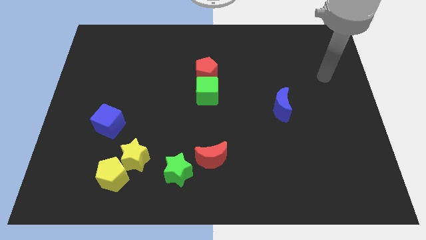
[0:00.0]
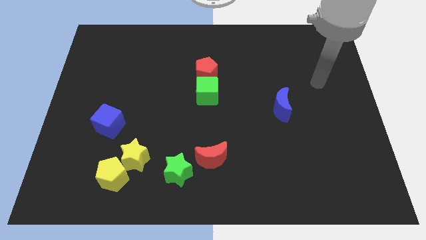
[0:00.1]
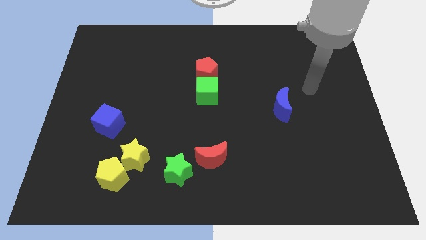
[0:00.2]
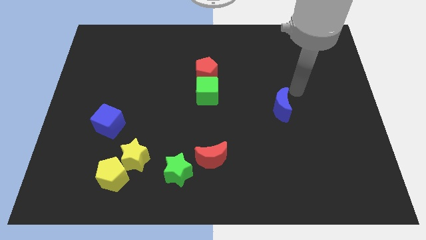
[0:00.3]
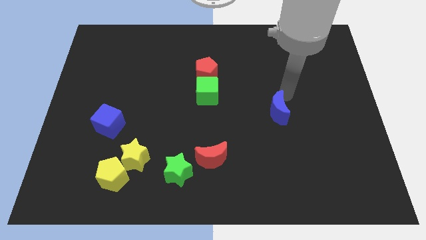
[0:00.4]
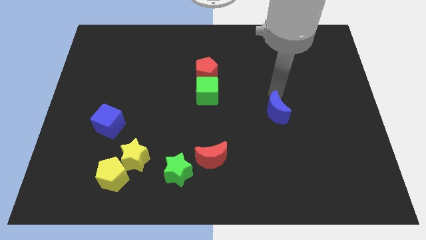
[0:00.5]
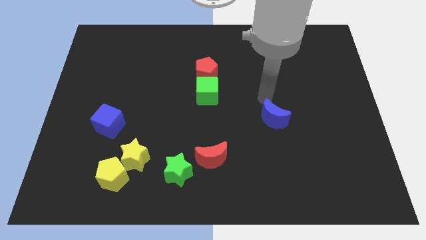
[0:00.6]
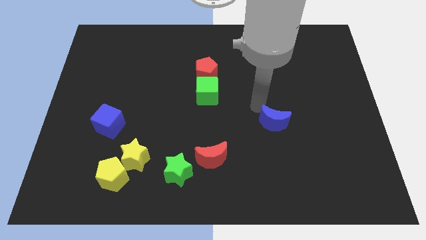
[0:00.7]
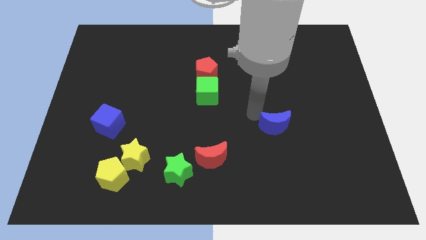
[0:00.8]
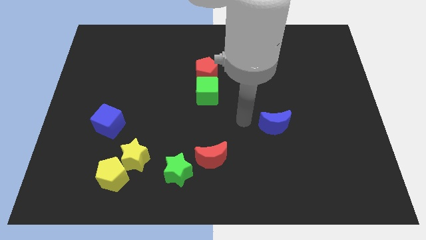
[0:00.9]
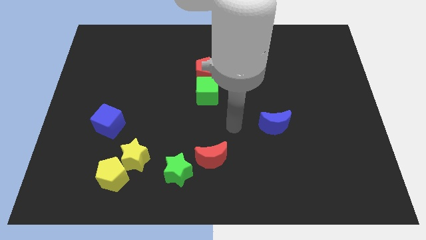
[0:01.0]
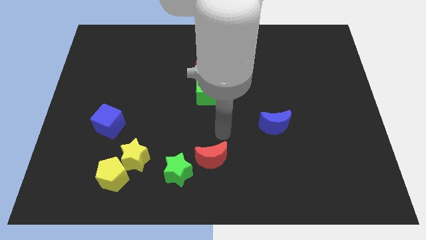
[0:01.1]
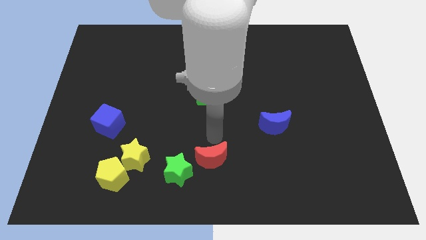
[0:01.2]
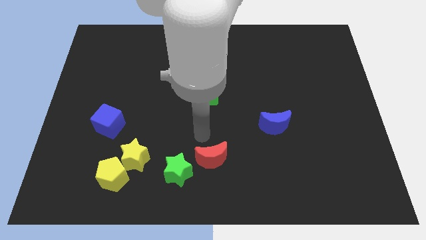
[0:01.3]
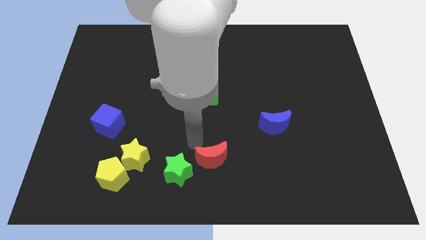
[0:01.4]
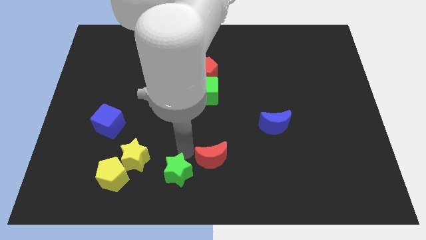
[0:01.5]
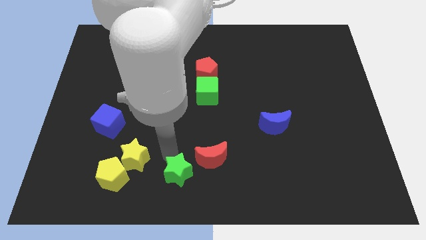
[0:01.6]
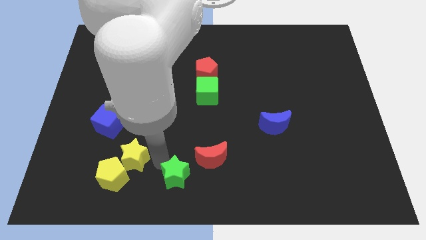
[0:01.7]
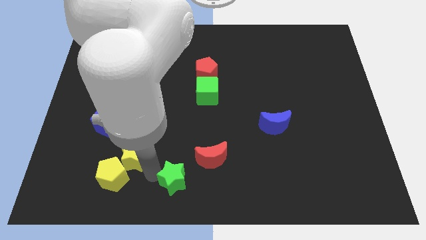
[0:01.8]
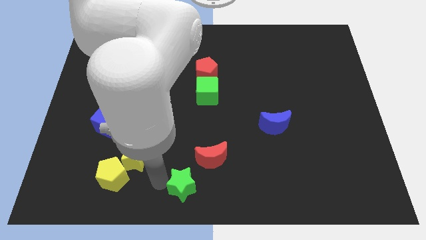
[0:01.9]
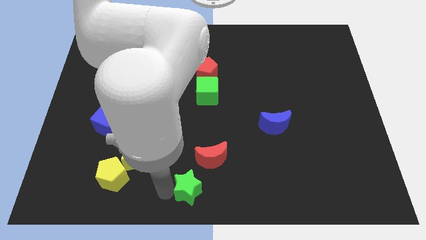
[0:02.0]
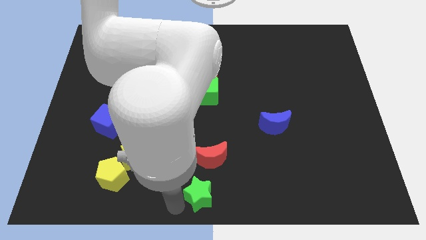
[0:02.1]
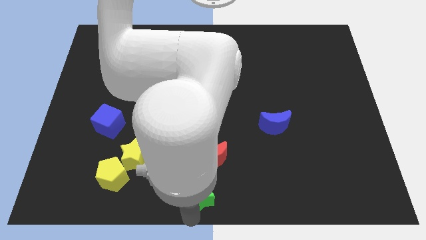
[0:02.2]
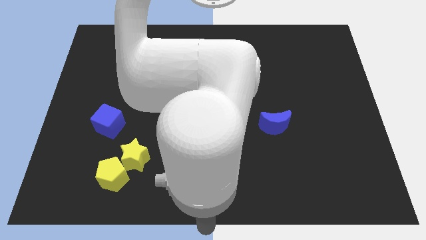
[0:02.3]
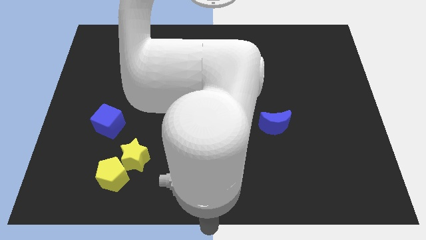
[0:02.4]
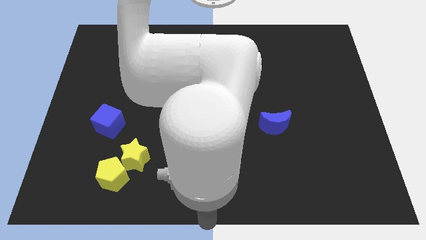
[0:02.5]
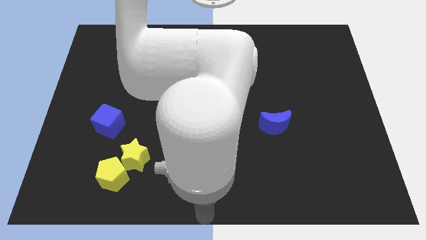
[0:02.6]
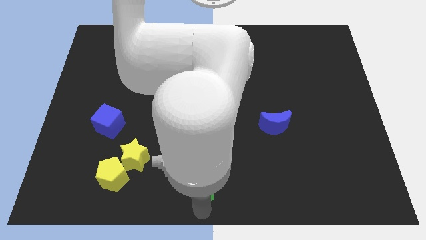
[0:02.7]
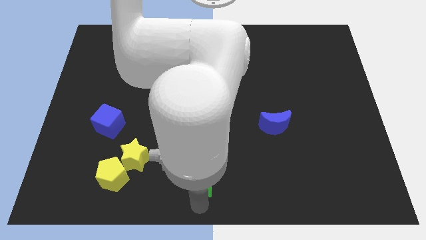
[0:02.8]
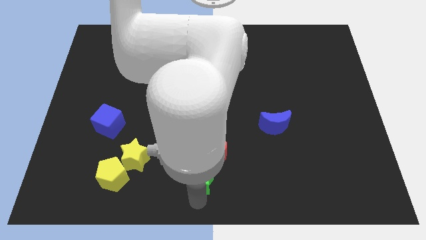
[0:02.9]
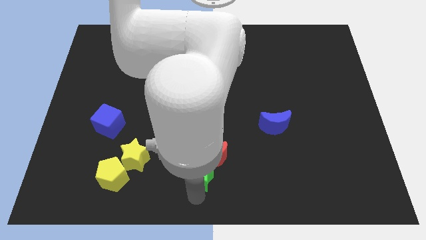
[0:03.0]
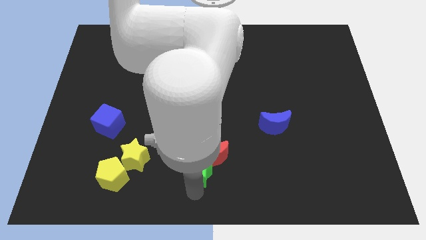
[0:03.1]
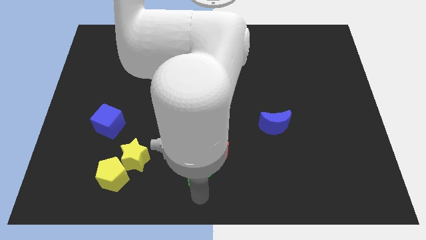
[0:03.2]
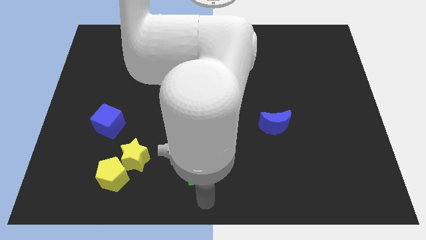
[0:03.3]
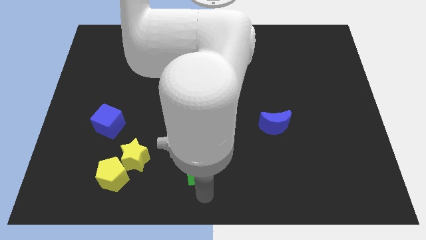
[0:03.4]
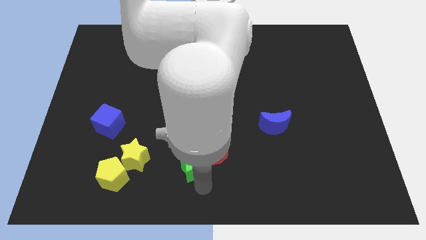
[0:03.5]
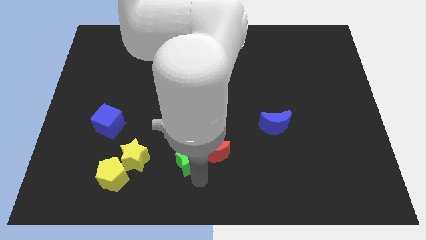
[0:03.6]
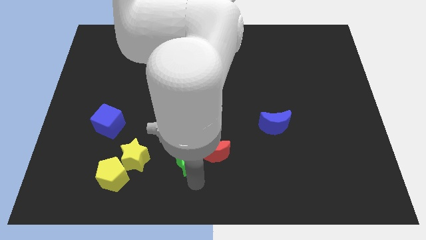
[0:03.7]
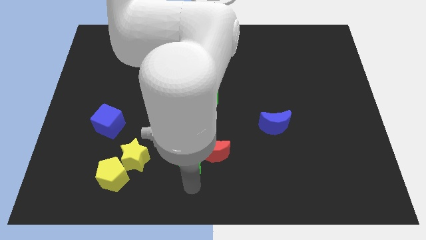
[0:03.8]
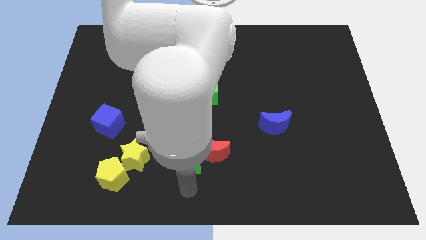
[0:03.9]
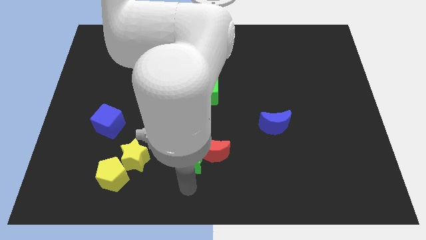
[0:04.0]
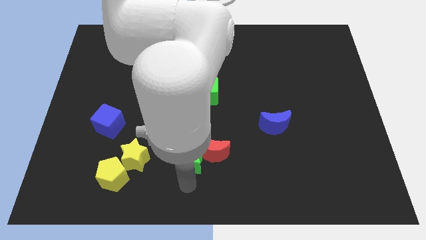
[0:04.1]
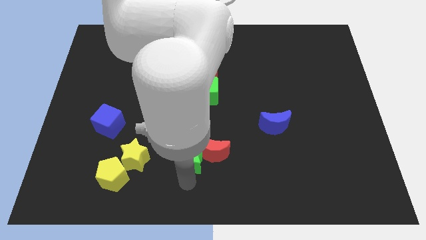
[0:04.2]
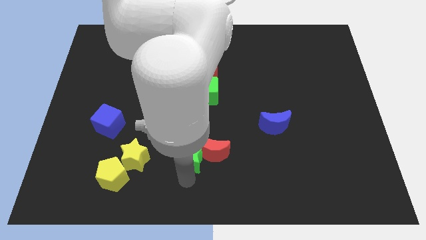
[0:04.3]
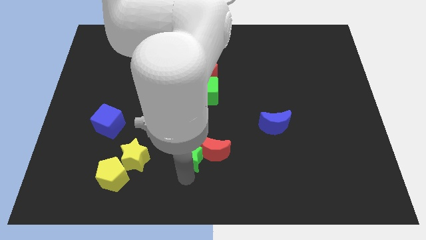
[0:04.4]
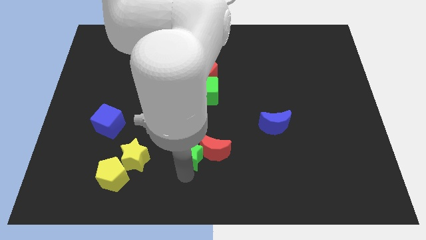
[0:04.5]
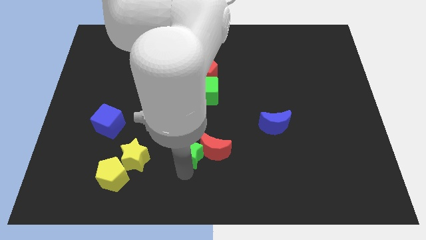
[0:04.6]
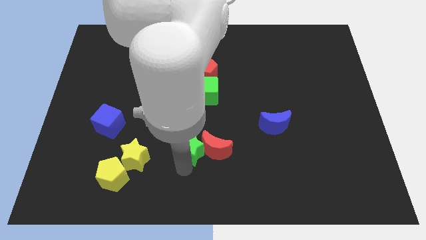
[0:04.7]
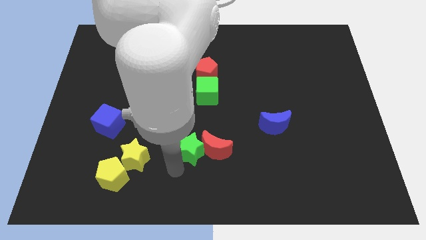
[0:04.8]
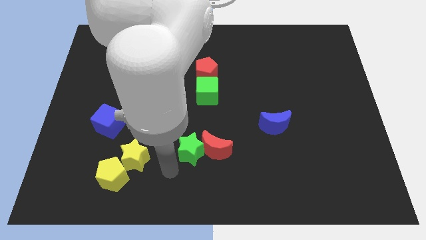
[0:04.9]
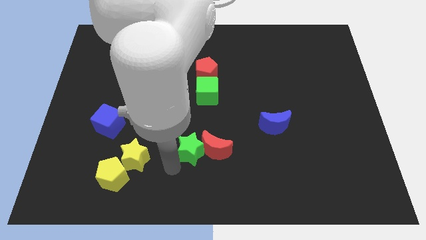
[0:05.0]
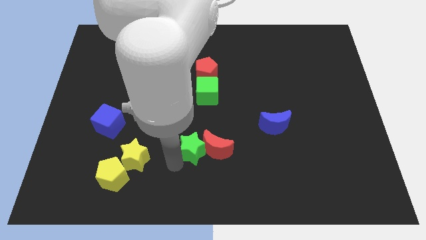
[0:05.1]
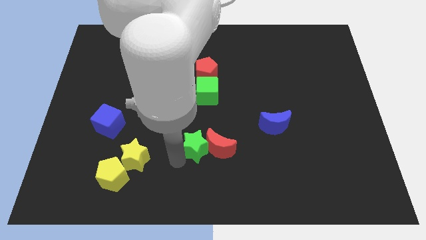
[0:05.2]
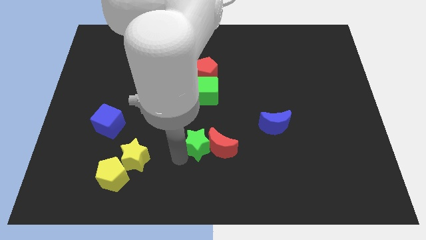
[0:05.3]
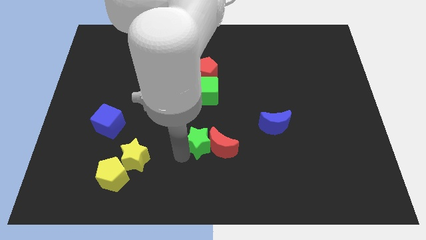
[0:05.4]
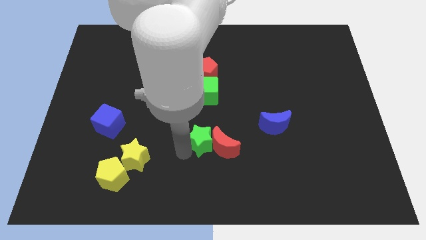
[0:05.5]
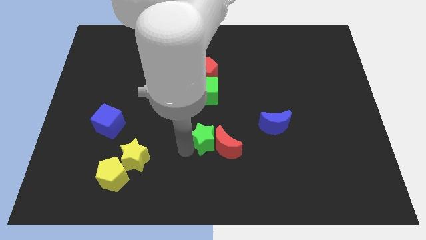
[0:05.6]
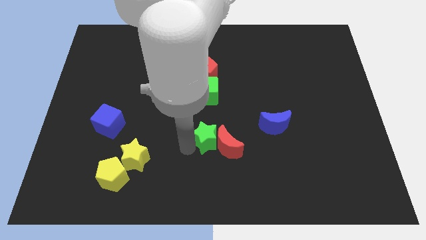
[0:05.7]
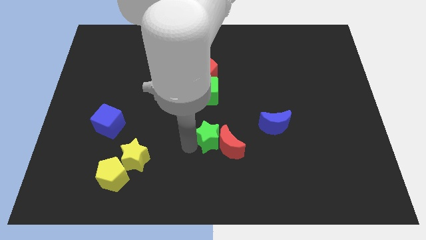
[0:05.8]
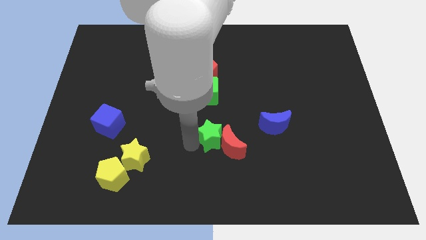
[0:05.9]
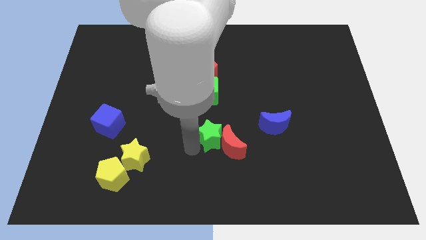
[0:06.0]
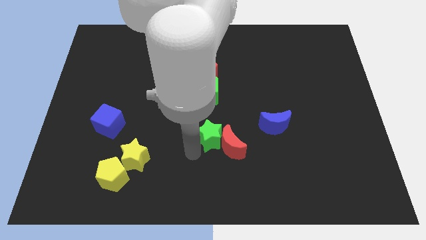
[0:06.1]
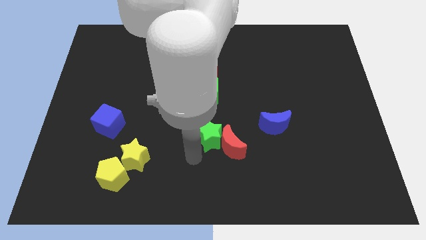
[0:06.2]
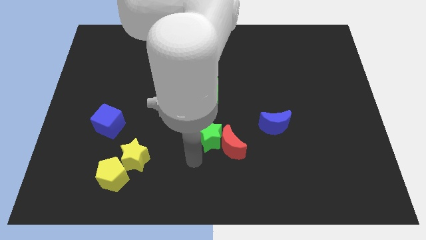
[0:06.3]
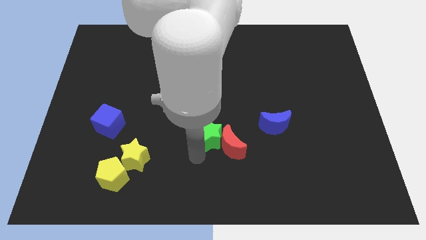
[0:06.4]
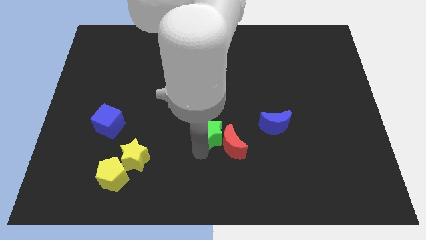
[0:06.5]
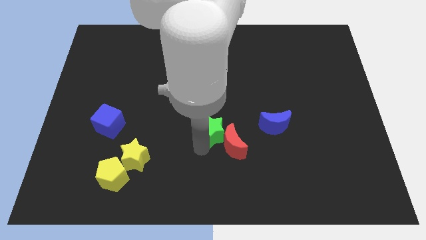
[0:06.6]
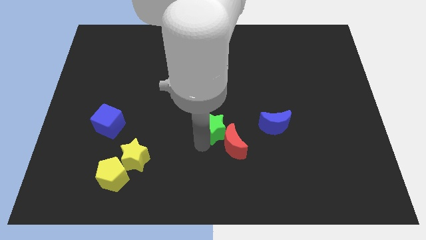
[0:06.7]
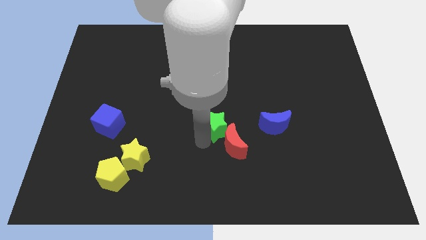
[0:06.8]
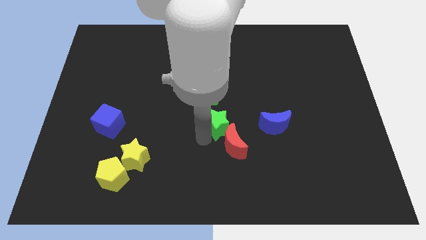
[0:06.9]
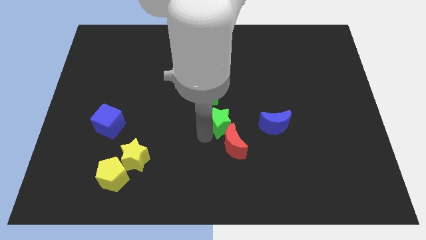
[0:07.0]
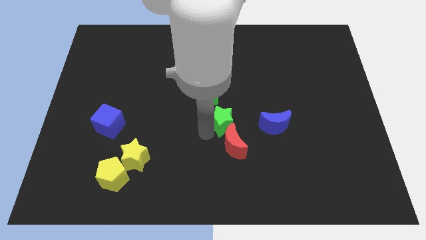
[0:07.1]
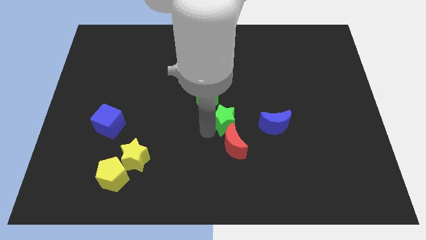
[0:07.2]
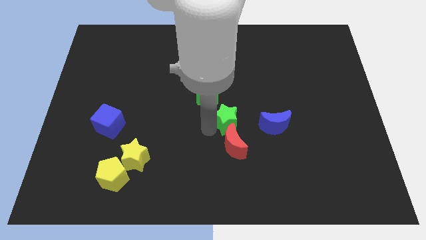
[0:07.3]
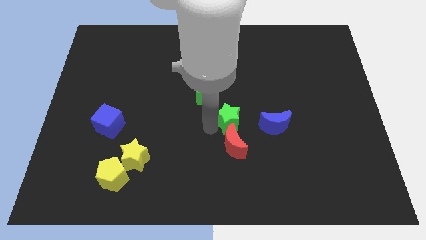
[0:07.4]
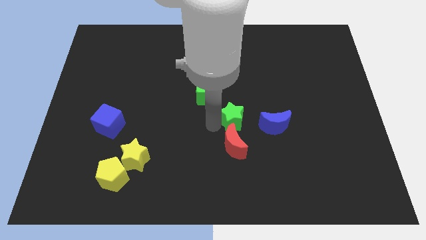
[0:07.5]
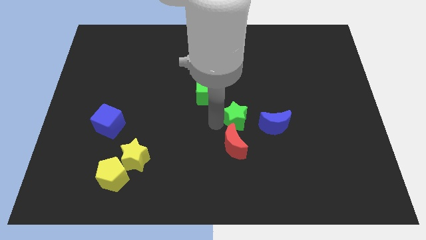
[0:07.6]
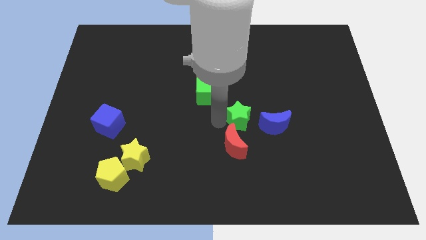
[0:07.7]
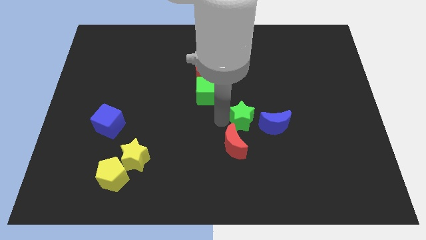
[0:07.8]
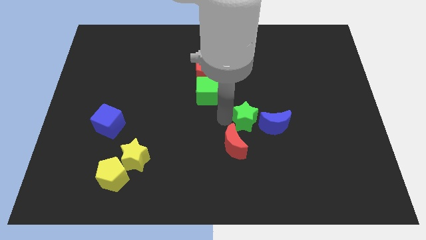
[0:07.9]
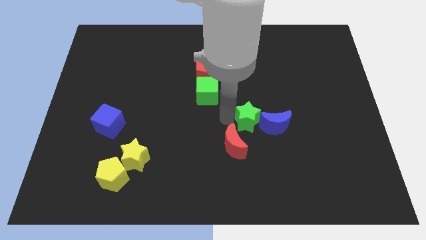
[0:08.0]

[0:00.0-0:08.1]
move the green star towards the blue moon
